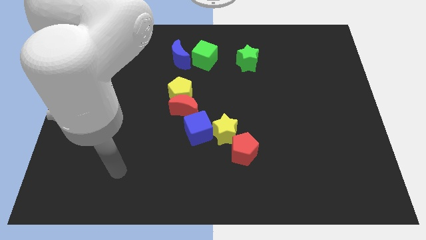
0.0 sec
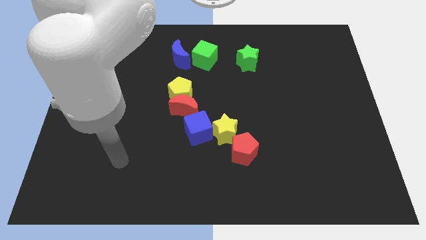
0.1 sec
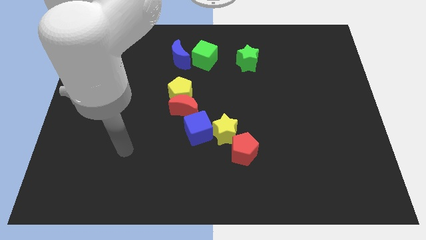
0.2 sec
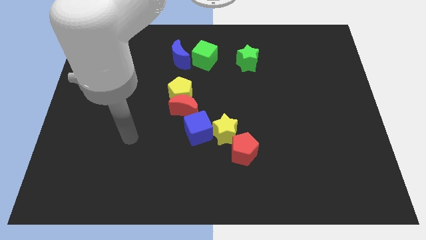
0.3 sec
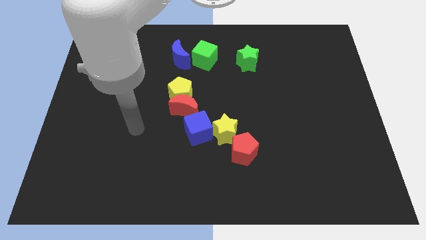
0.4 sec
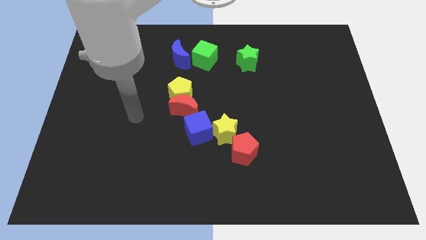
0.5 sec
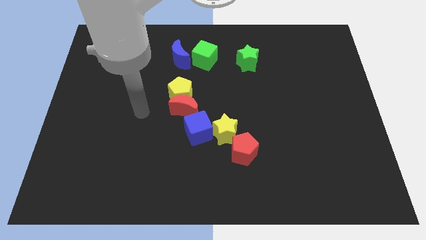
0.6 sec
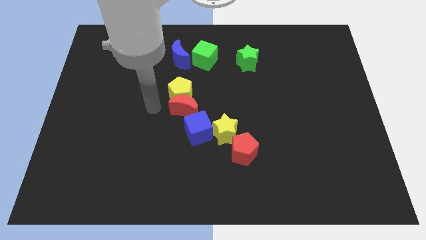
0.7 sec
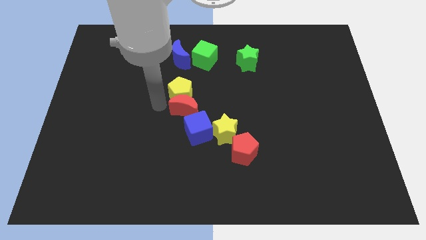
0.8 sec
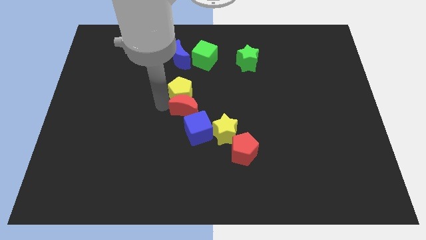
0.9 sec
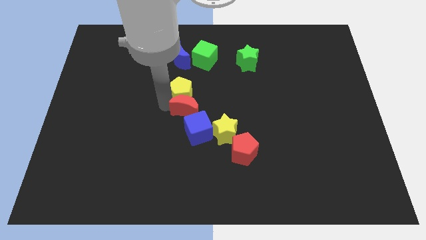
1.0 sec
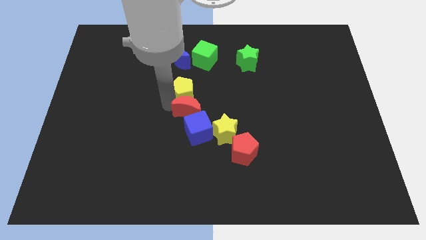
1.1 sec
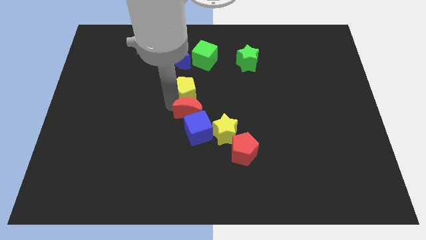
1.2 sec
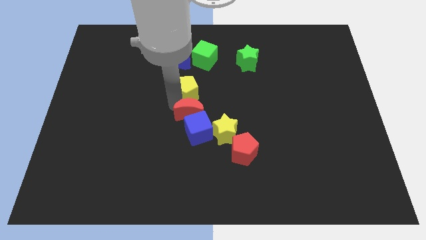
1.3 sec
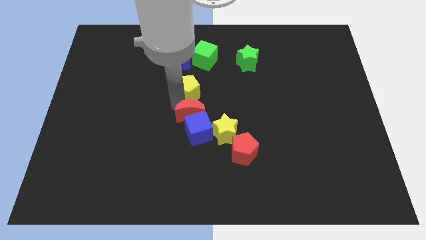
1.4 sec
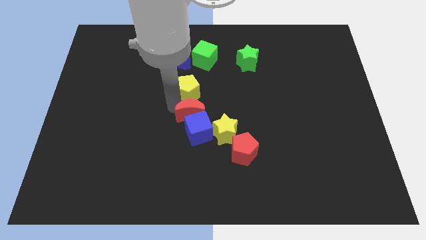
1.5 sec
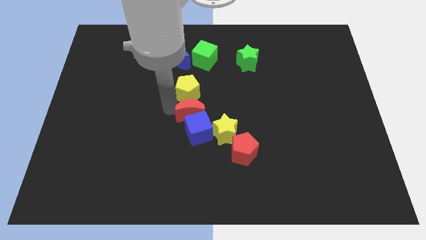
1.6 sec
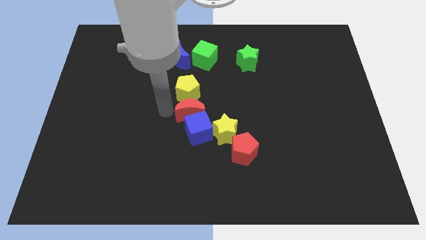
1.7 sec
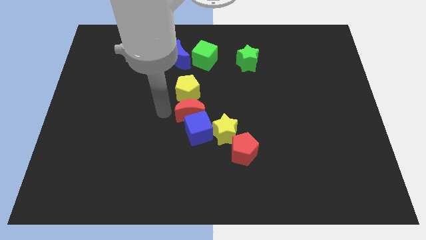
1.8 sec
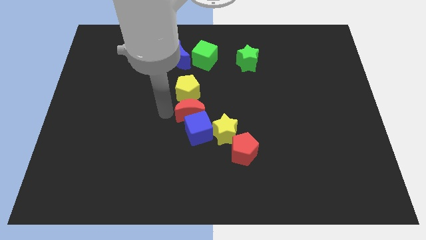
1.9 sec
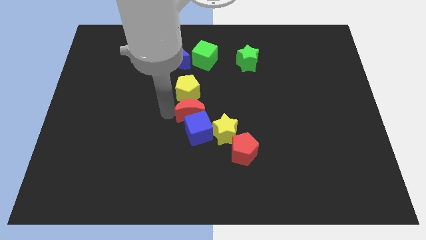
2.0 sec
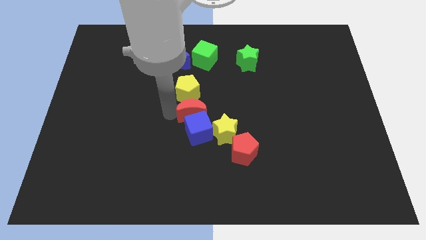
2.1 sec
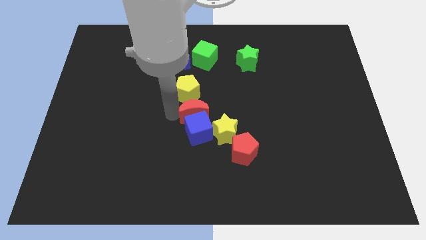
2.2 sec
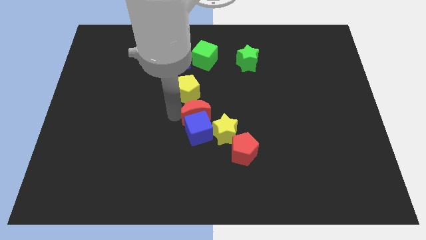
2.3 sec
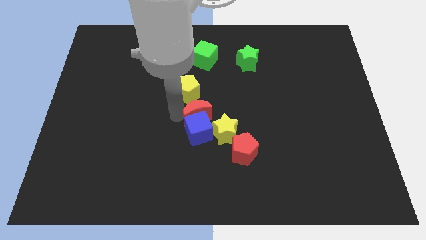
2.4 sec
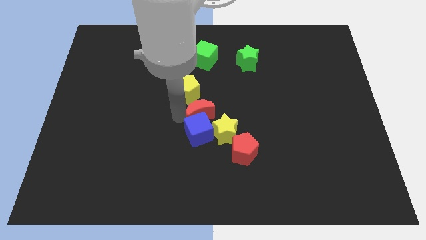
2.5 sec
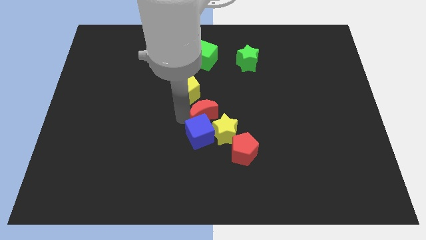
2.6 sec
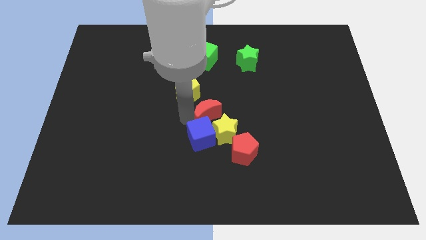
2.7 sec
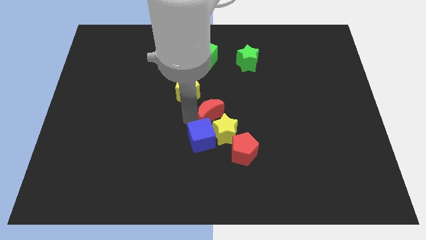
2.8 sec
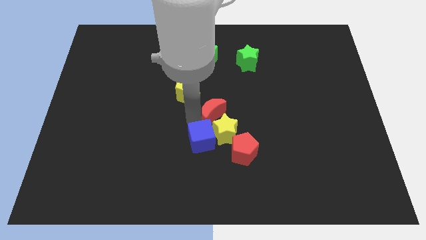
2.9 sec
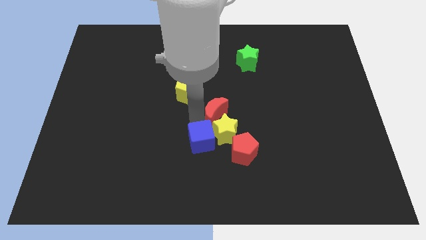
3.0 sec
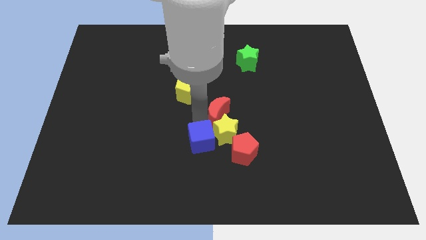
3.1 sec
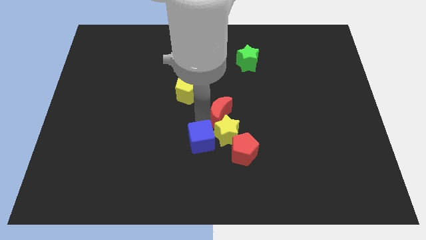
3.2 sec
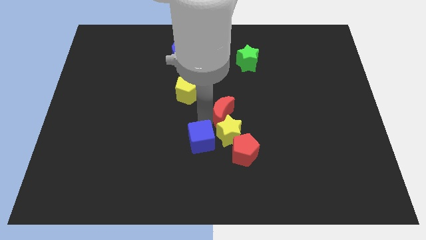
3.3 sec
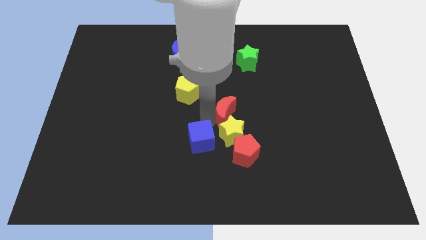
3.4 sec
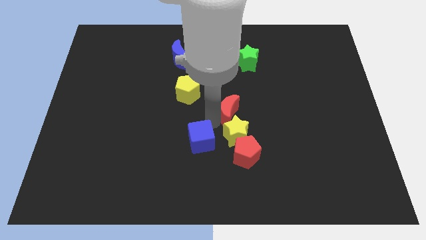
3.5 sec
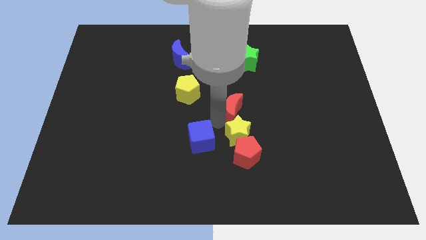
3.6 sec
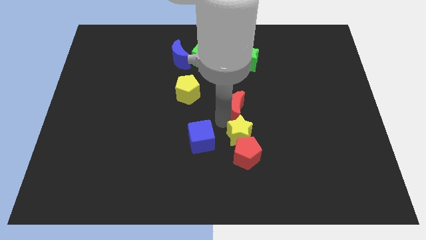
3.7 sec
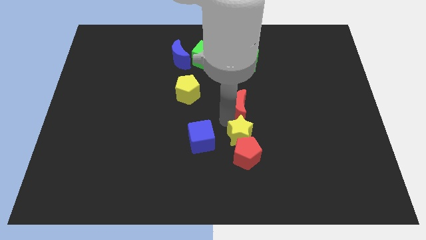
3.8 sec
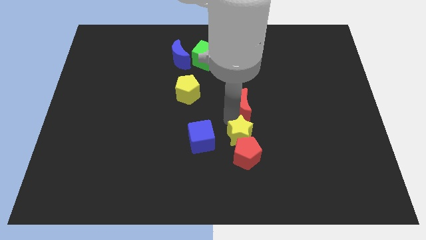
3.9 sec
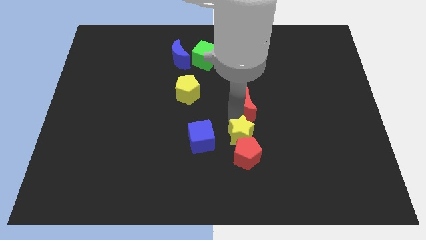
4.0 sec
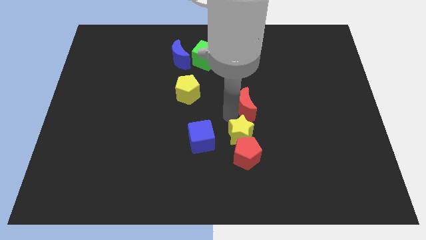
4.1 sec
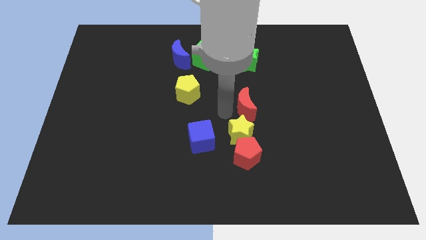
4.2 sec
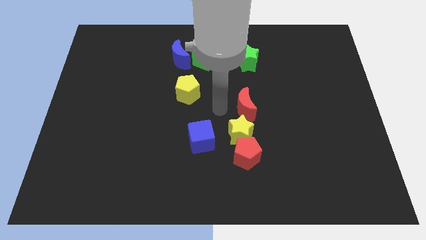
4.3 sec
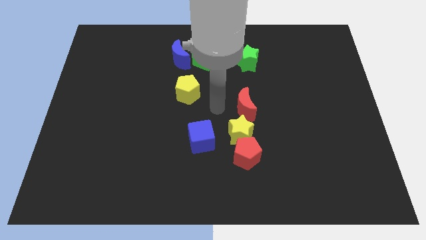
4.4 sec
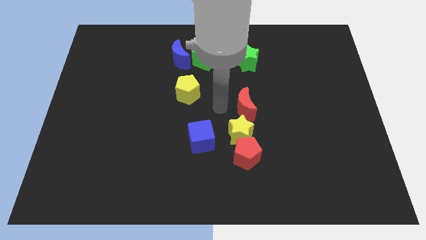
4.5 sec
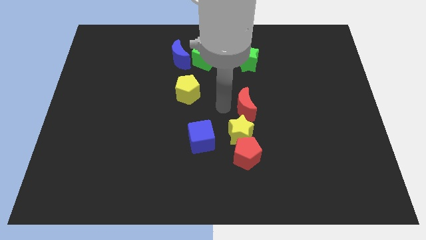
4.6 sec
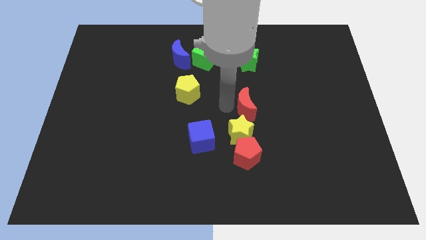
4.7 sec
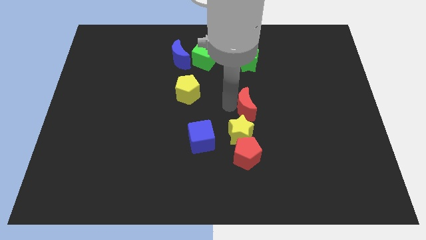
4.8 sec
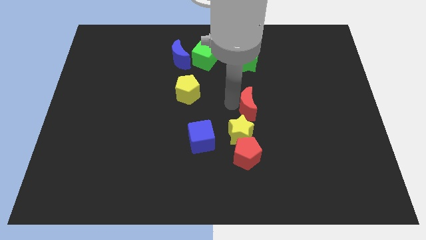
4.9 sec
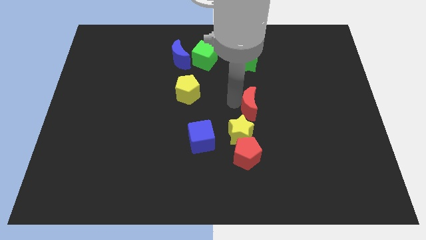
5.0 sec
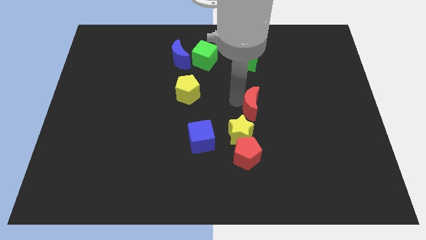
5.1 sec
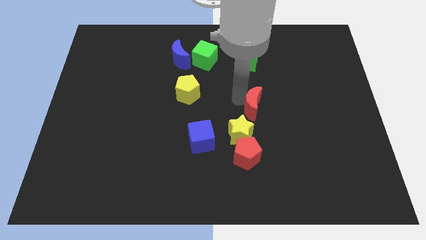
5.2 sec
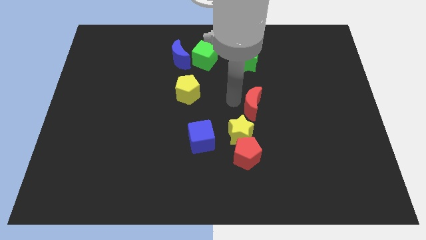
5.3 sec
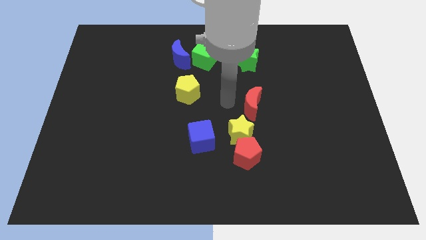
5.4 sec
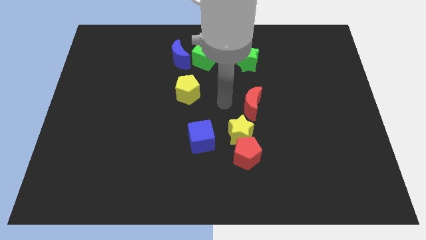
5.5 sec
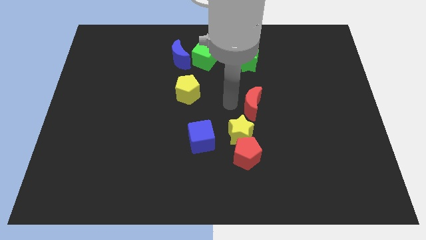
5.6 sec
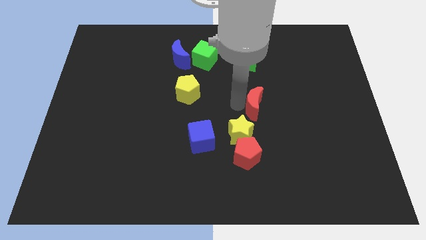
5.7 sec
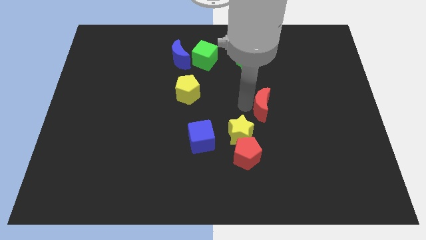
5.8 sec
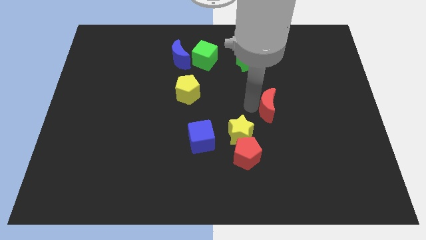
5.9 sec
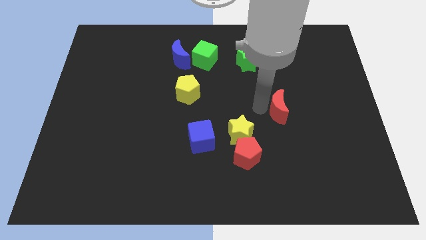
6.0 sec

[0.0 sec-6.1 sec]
push the red moon to the right

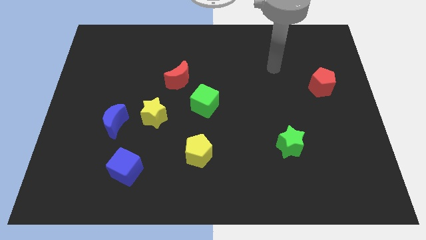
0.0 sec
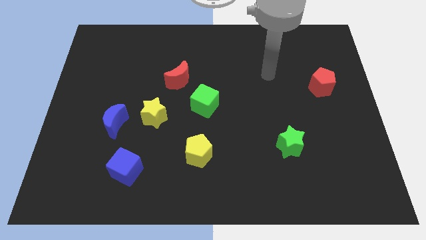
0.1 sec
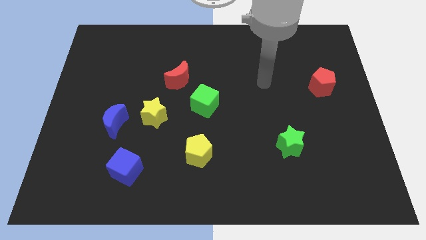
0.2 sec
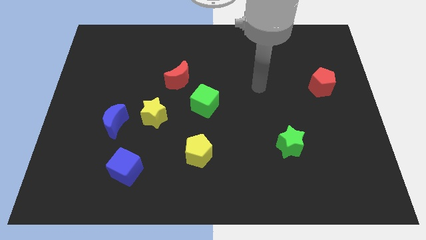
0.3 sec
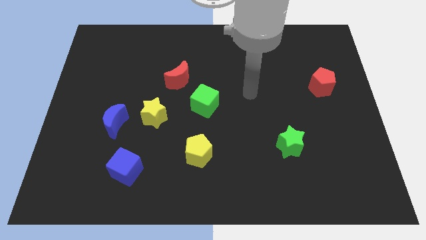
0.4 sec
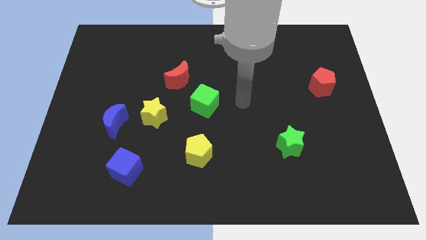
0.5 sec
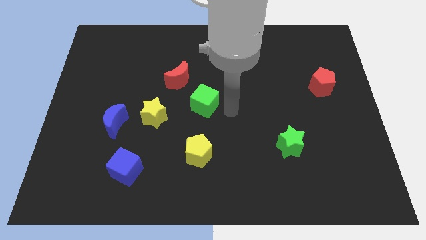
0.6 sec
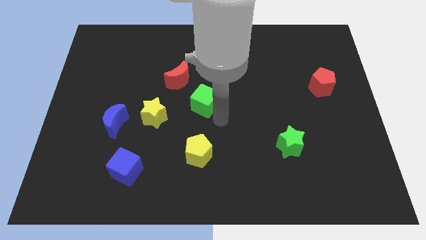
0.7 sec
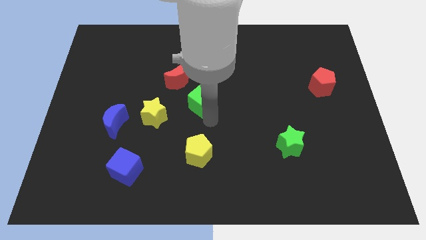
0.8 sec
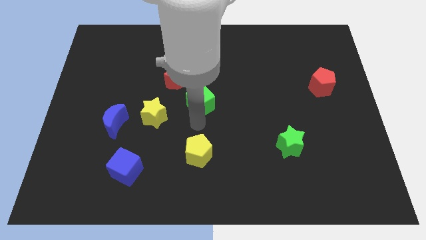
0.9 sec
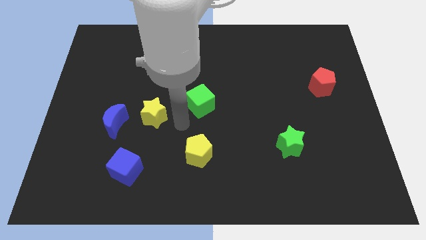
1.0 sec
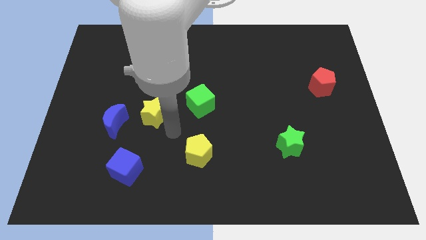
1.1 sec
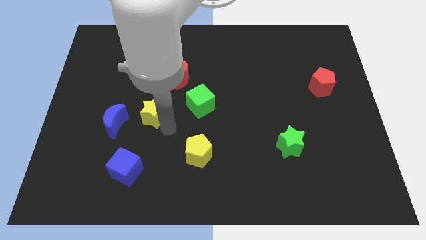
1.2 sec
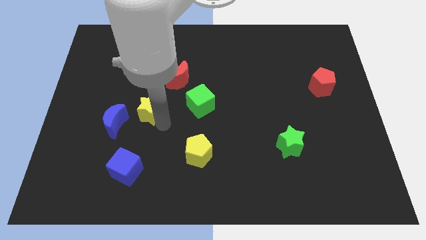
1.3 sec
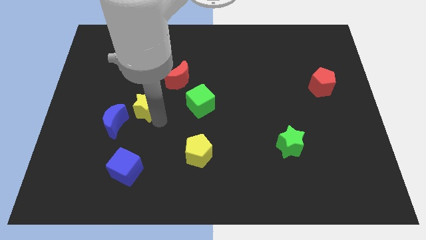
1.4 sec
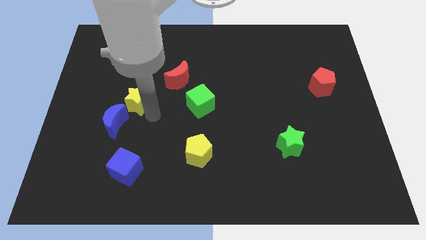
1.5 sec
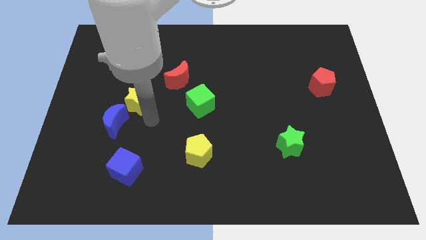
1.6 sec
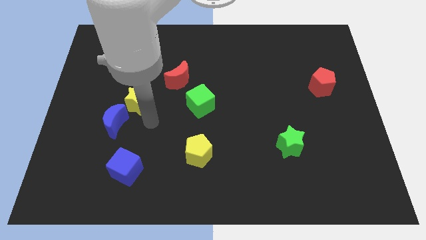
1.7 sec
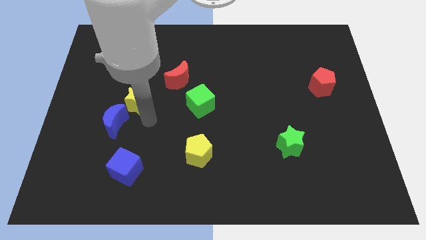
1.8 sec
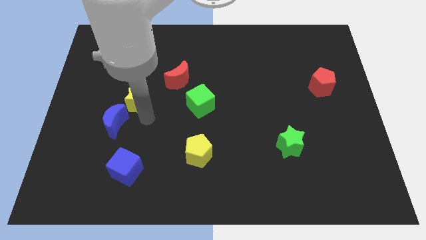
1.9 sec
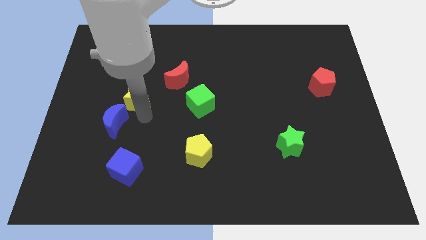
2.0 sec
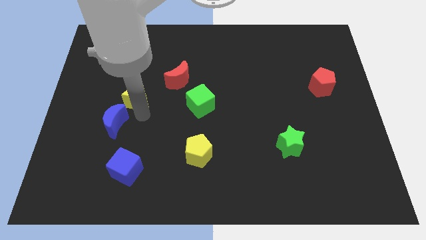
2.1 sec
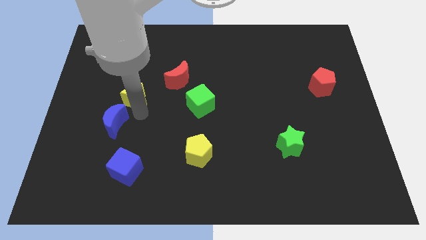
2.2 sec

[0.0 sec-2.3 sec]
slightly slide the yellow star diagonally upwards and to the left
